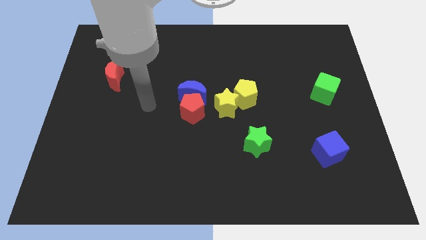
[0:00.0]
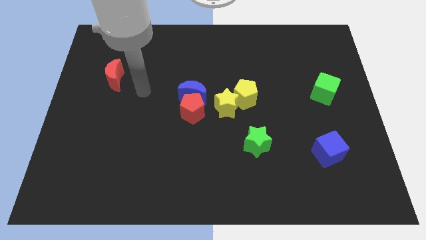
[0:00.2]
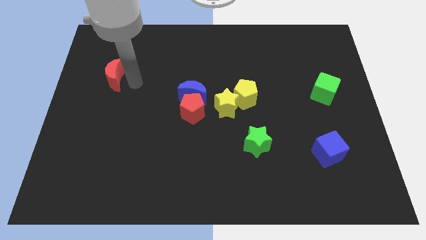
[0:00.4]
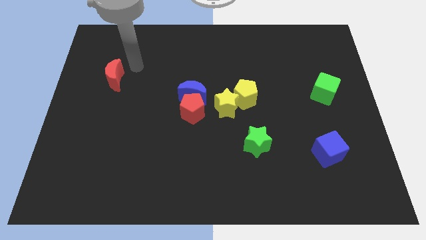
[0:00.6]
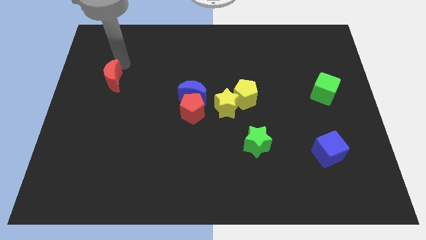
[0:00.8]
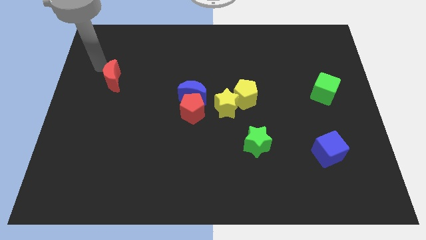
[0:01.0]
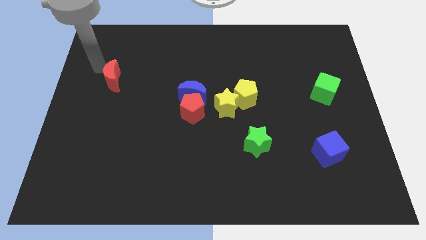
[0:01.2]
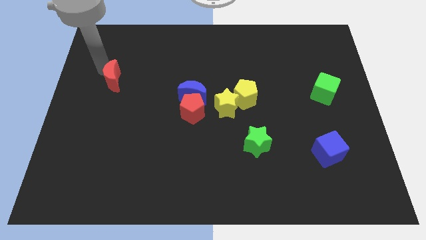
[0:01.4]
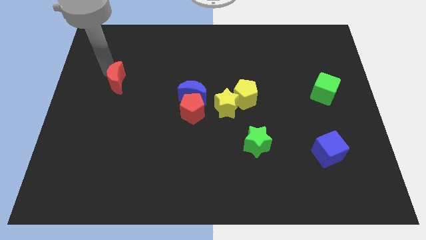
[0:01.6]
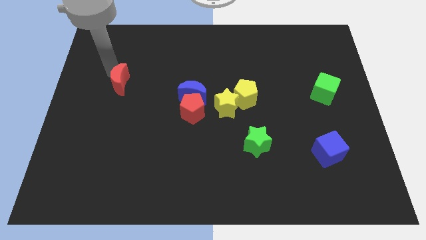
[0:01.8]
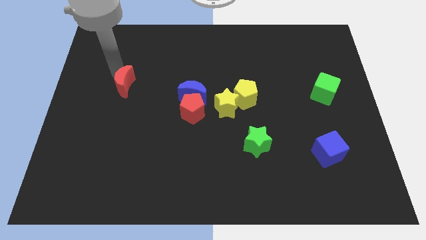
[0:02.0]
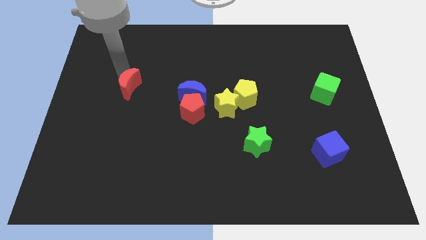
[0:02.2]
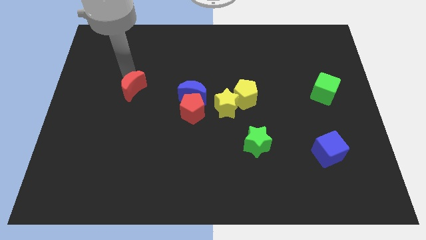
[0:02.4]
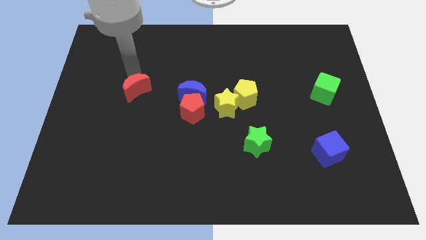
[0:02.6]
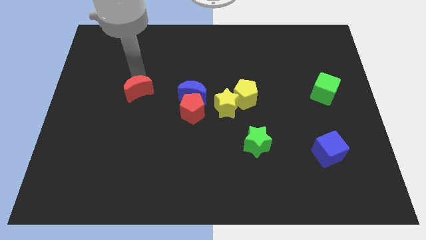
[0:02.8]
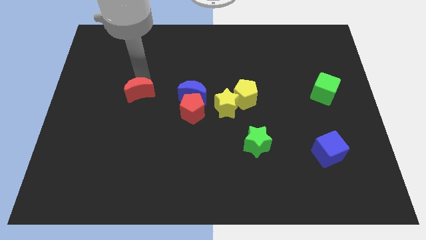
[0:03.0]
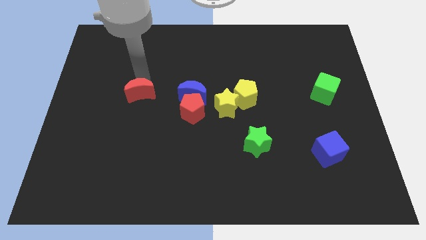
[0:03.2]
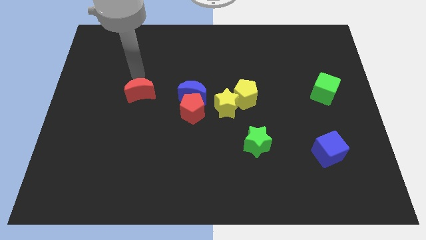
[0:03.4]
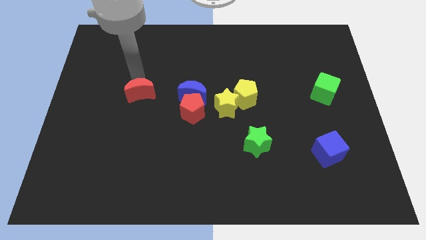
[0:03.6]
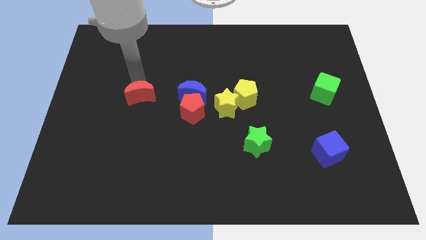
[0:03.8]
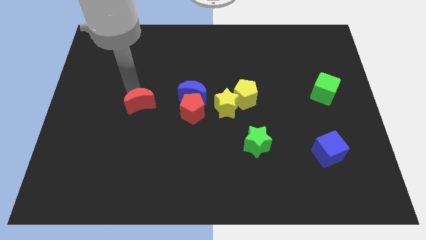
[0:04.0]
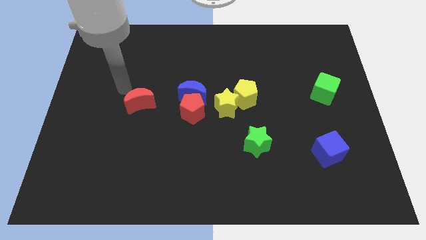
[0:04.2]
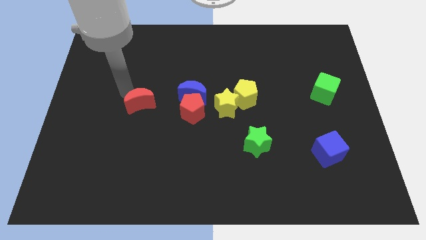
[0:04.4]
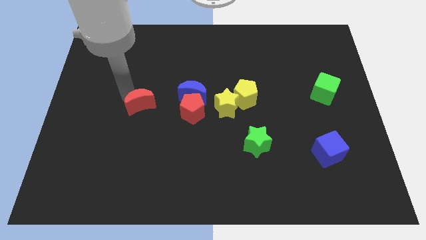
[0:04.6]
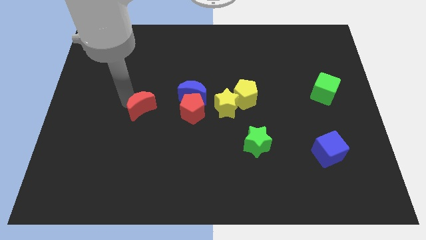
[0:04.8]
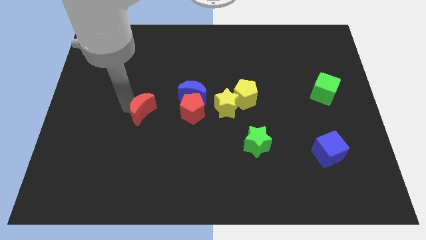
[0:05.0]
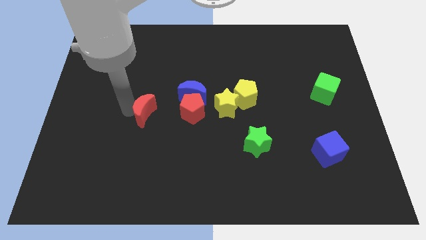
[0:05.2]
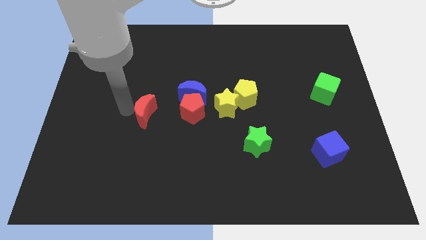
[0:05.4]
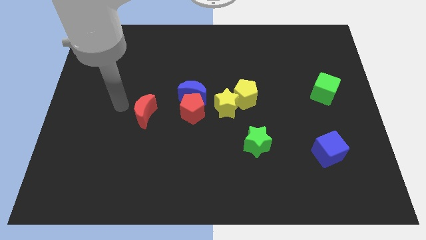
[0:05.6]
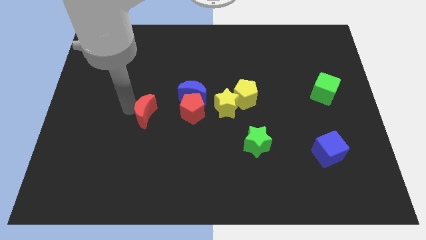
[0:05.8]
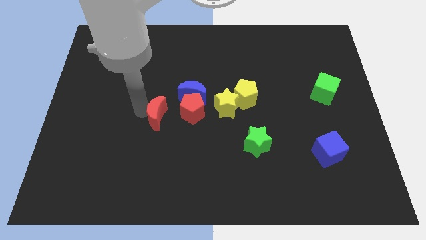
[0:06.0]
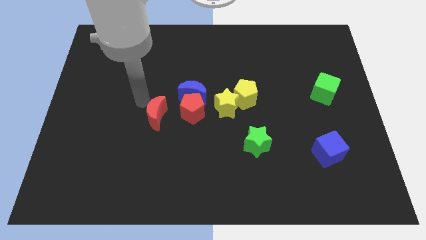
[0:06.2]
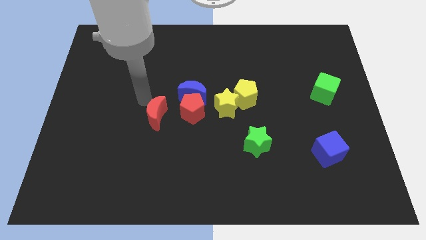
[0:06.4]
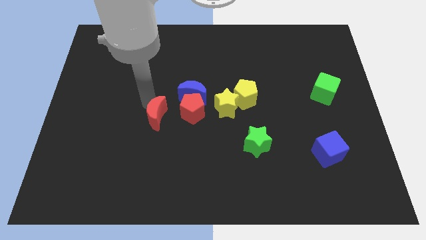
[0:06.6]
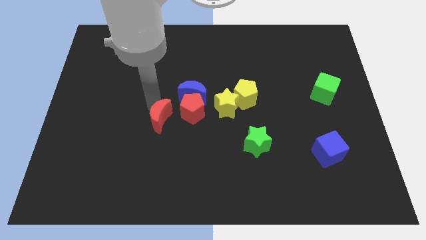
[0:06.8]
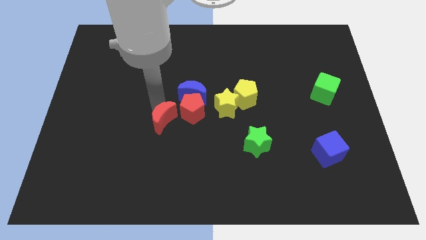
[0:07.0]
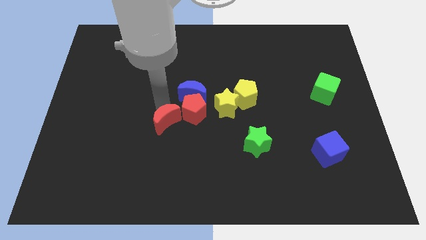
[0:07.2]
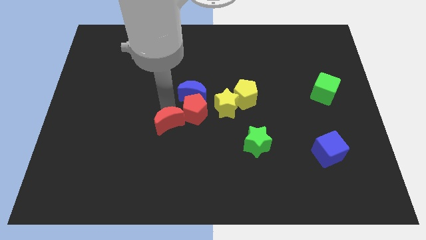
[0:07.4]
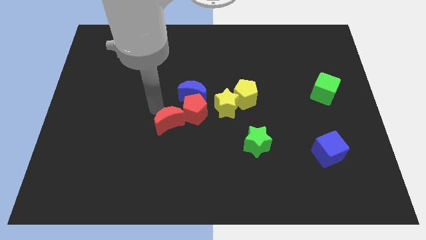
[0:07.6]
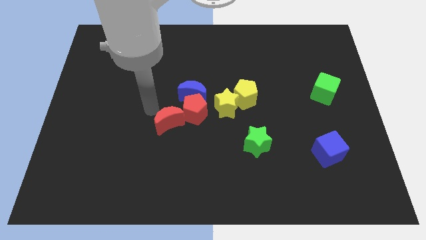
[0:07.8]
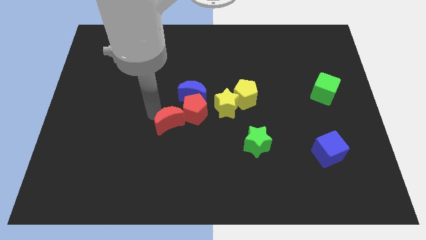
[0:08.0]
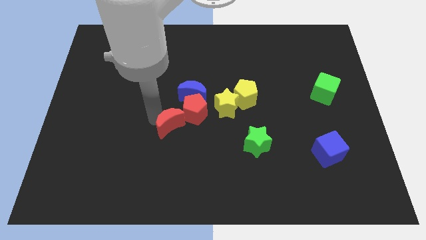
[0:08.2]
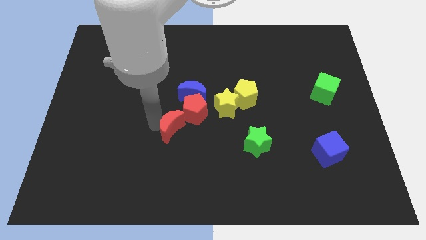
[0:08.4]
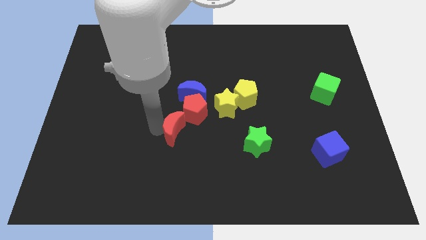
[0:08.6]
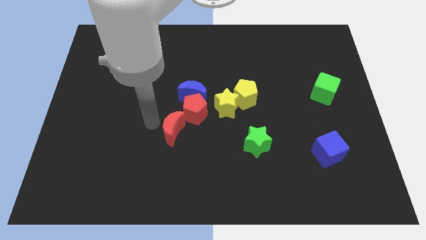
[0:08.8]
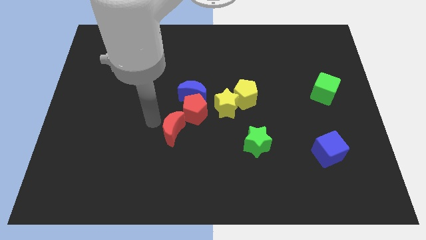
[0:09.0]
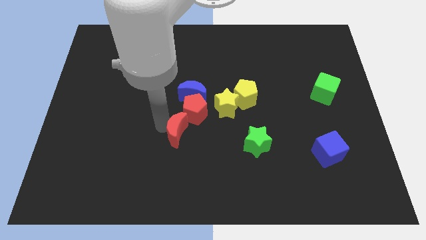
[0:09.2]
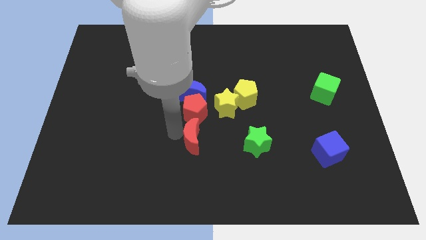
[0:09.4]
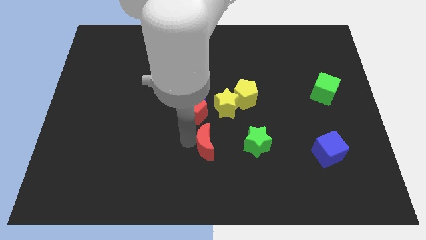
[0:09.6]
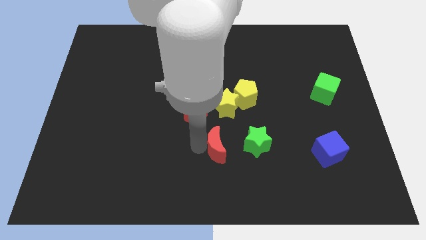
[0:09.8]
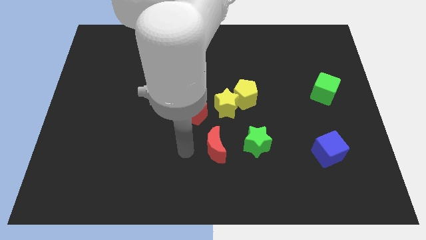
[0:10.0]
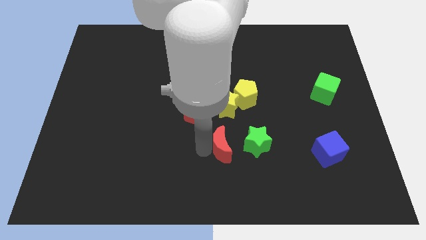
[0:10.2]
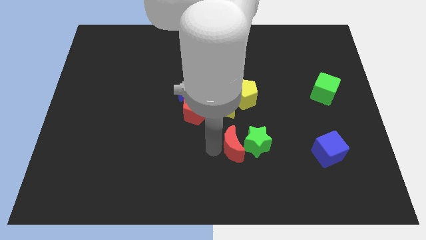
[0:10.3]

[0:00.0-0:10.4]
slide the red moon next to the green star

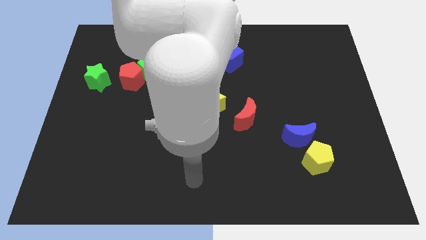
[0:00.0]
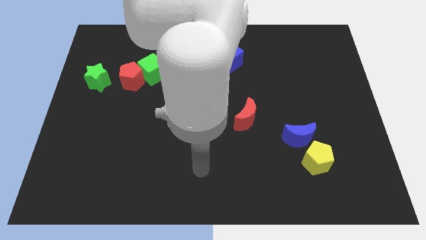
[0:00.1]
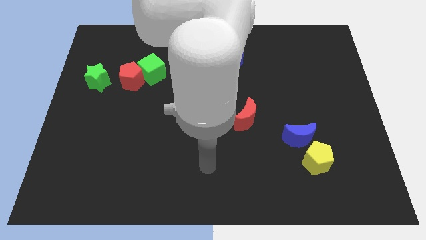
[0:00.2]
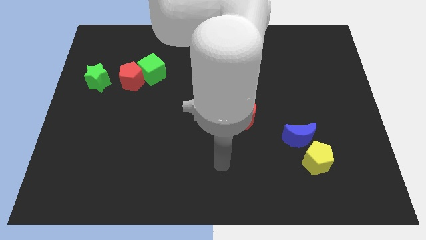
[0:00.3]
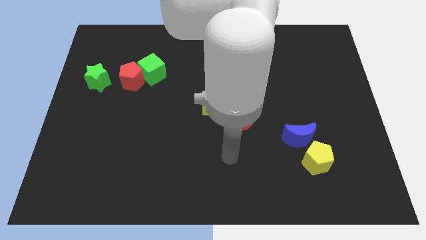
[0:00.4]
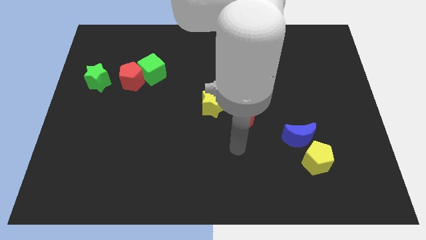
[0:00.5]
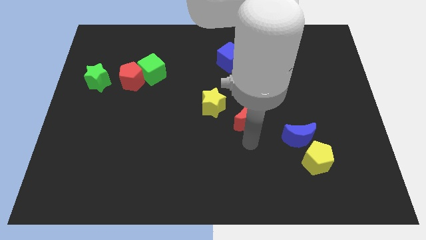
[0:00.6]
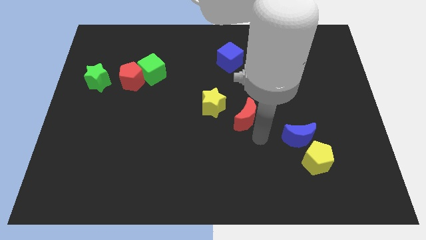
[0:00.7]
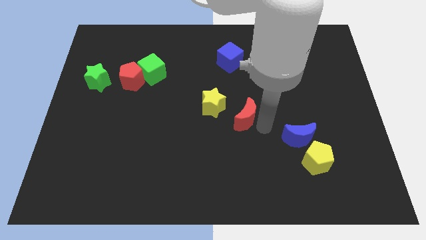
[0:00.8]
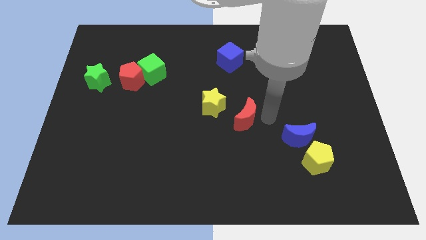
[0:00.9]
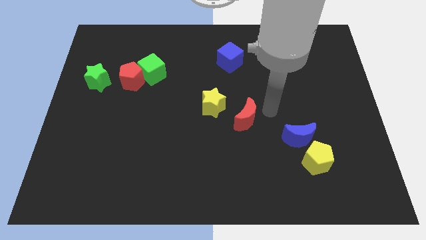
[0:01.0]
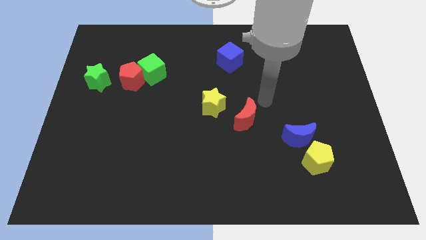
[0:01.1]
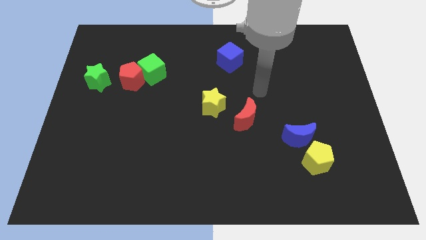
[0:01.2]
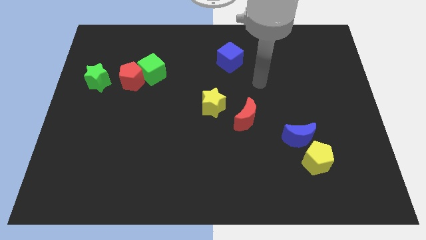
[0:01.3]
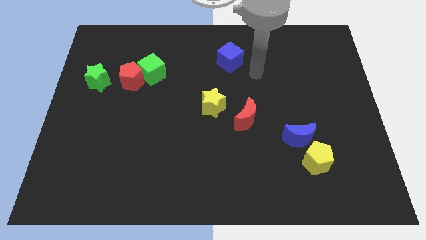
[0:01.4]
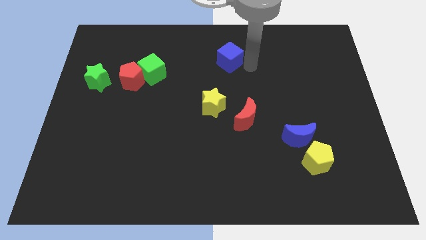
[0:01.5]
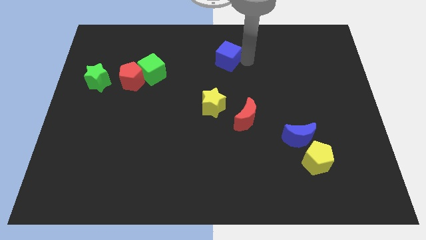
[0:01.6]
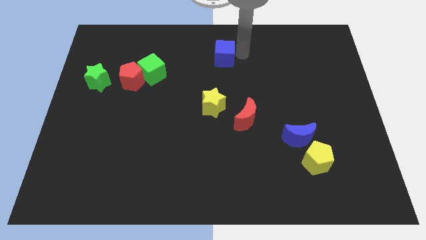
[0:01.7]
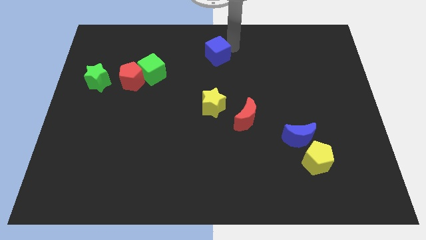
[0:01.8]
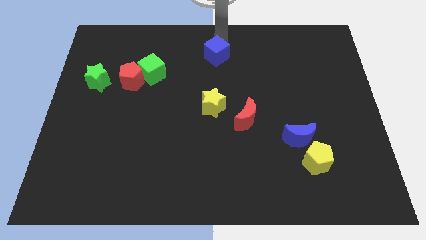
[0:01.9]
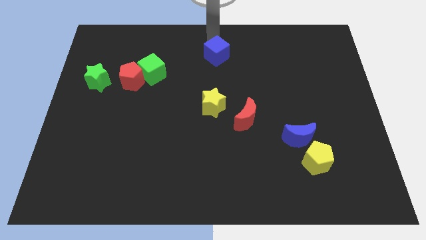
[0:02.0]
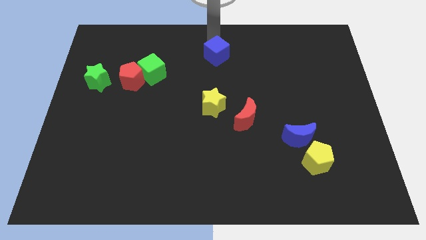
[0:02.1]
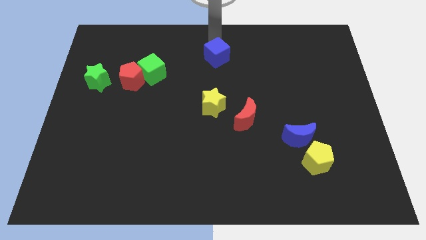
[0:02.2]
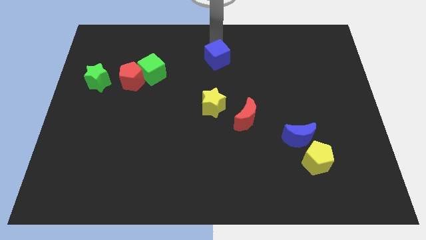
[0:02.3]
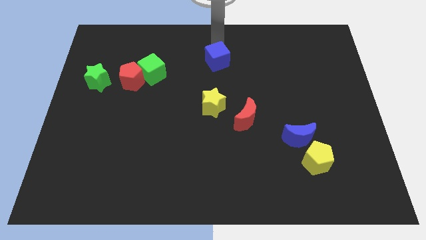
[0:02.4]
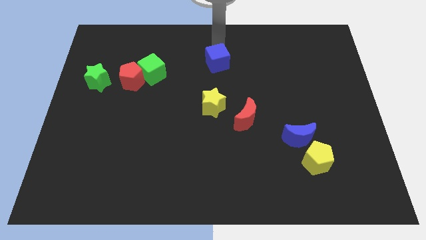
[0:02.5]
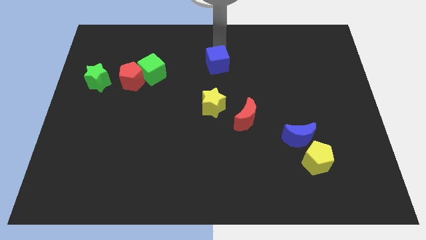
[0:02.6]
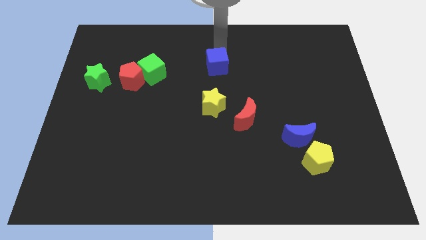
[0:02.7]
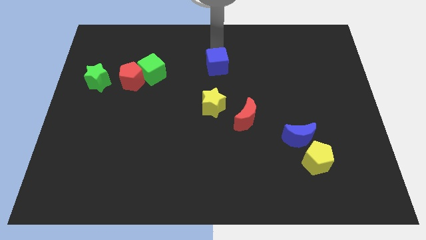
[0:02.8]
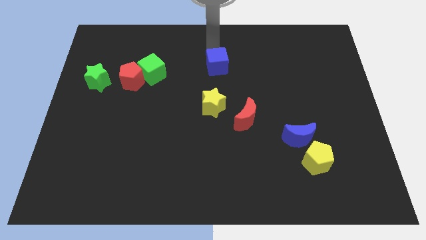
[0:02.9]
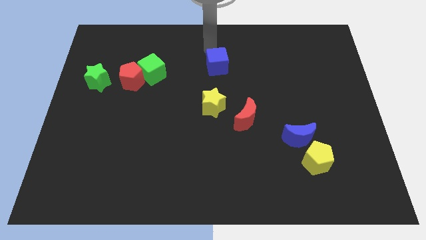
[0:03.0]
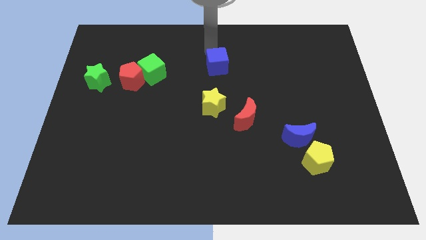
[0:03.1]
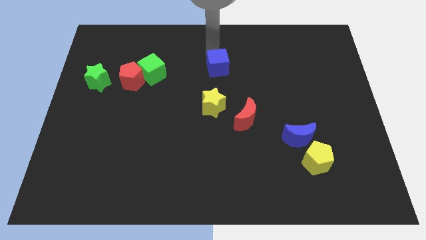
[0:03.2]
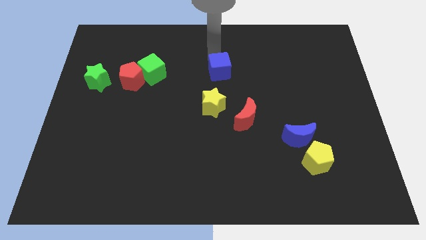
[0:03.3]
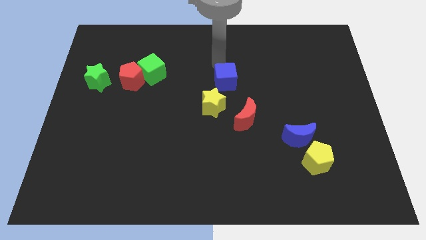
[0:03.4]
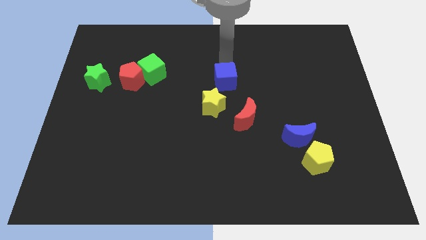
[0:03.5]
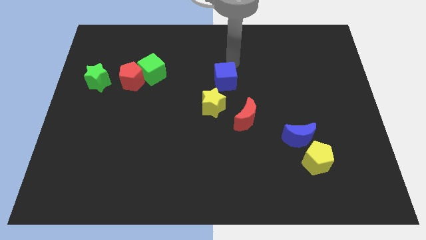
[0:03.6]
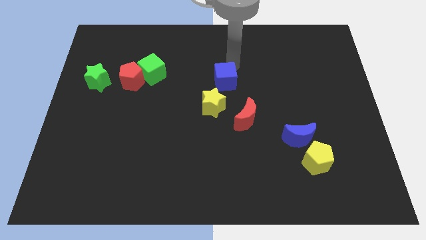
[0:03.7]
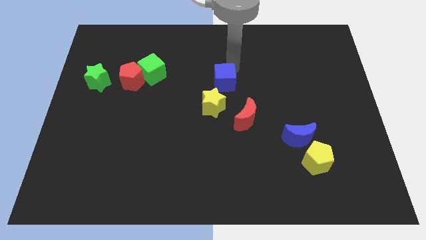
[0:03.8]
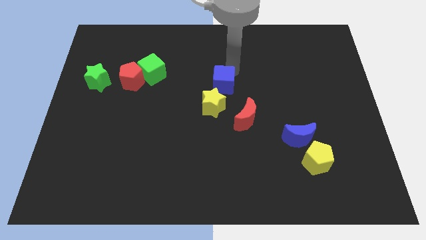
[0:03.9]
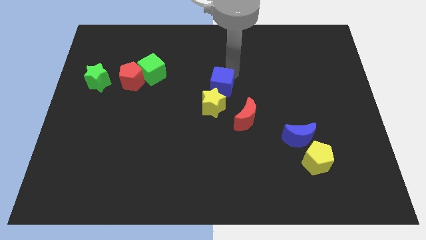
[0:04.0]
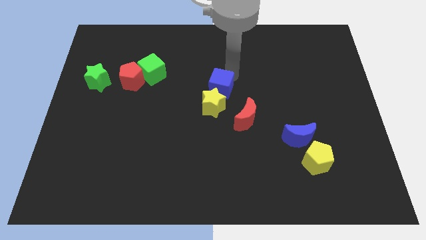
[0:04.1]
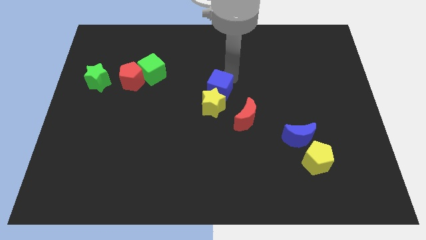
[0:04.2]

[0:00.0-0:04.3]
push the blue cube close to the yellow star
